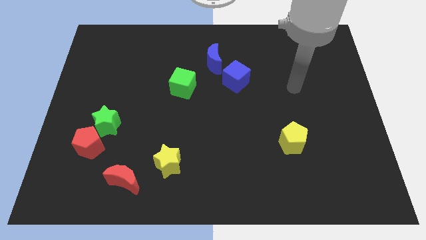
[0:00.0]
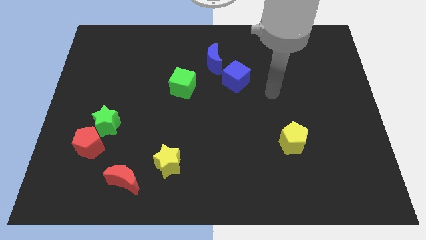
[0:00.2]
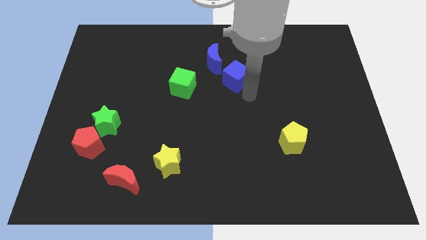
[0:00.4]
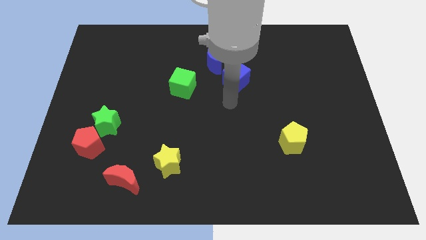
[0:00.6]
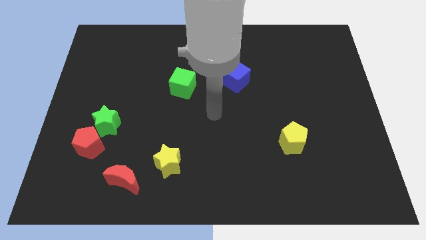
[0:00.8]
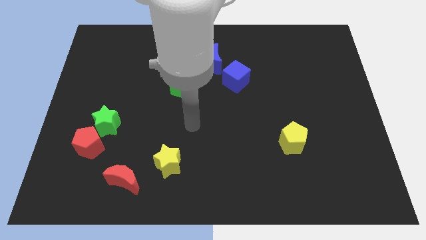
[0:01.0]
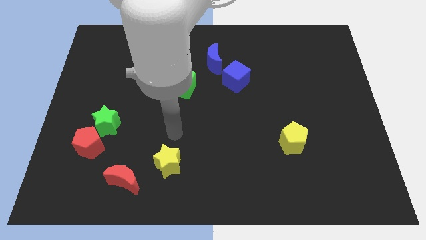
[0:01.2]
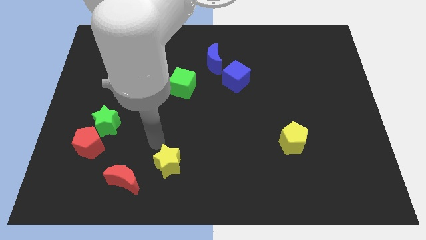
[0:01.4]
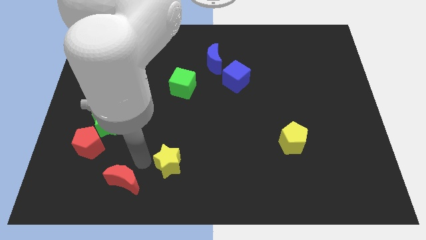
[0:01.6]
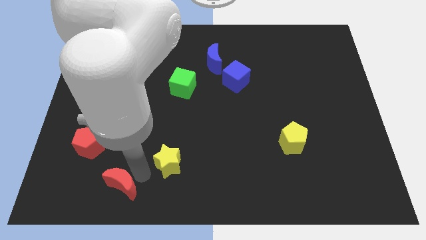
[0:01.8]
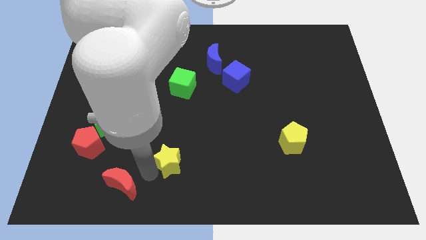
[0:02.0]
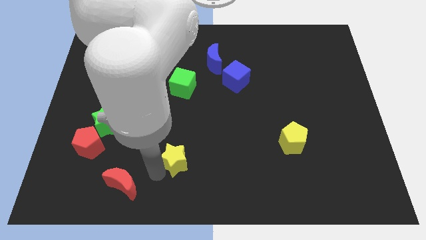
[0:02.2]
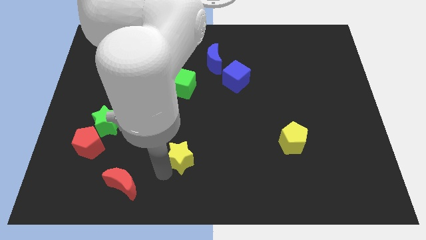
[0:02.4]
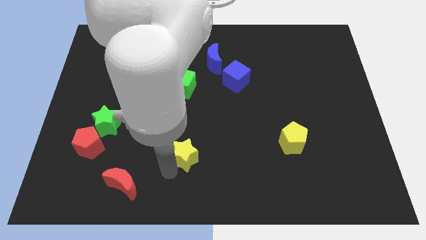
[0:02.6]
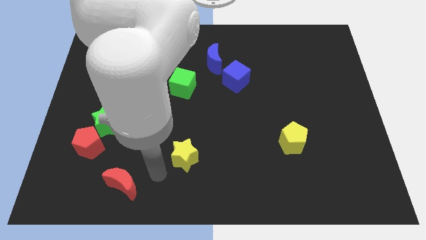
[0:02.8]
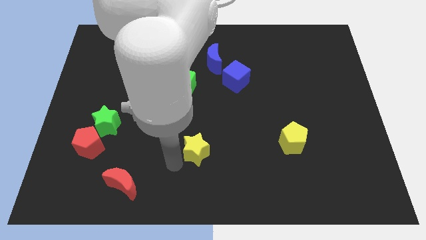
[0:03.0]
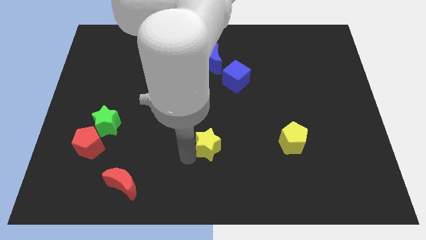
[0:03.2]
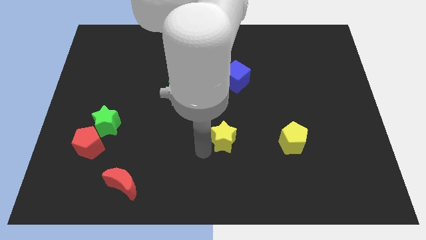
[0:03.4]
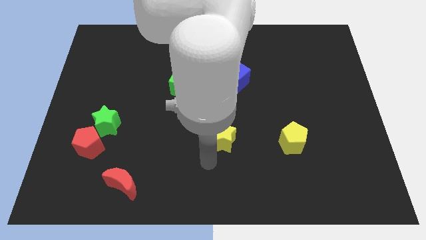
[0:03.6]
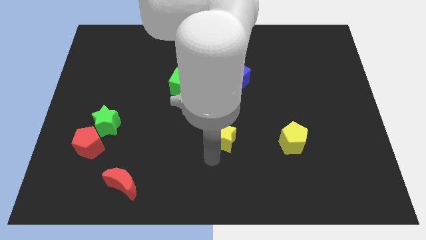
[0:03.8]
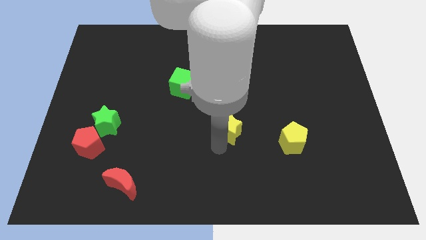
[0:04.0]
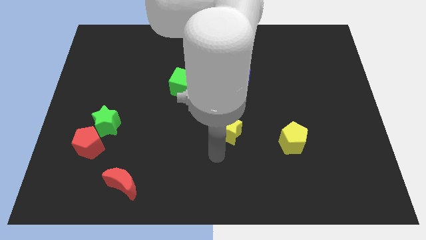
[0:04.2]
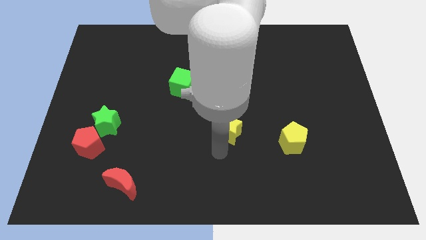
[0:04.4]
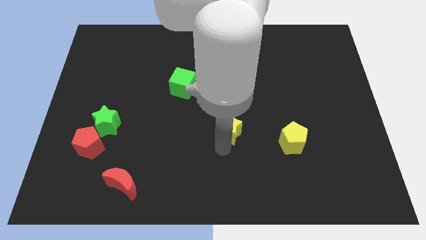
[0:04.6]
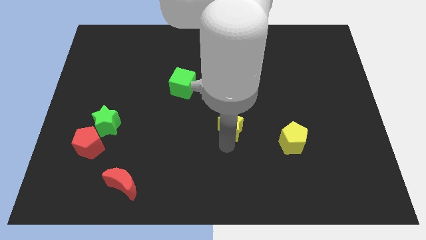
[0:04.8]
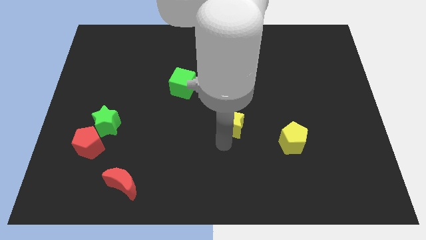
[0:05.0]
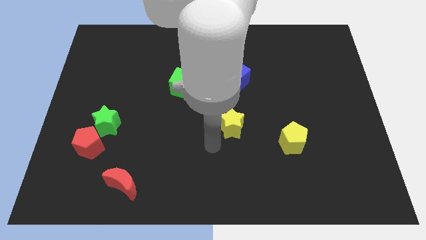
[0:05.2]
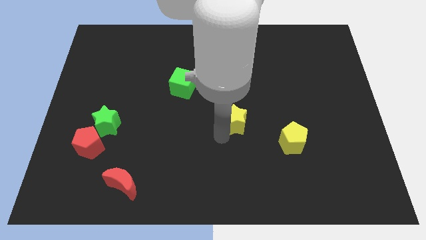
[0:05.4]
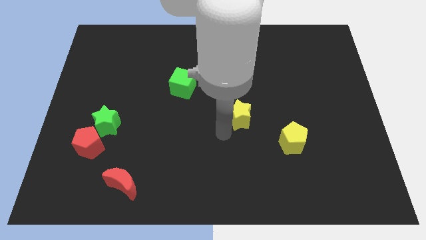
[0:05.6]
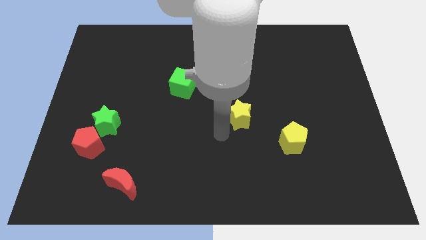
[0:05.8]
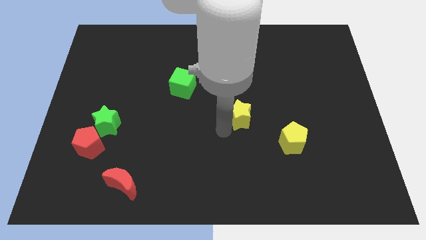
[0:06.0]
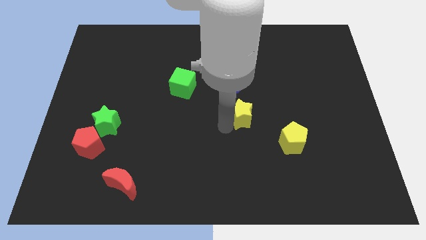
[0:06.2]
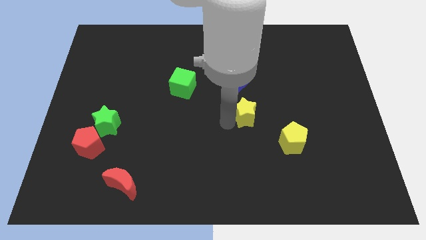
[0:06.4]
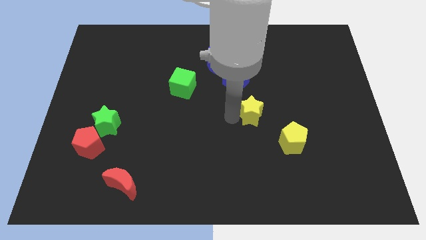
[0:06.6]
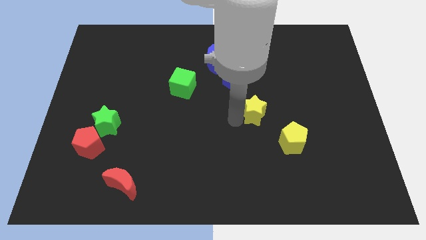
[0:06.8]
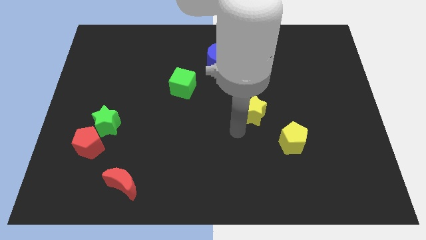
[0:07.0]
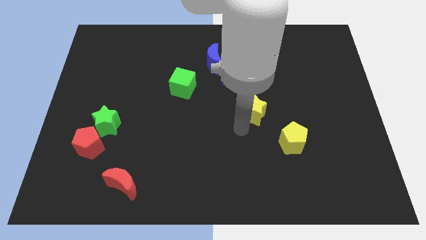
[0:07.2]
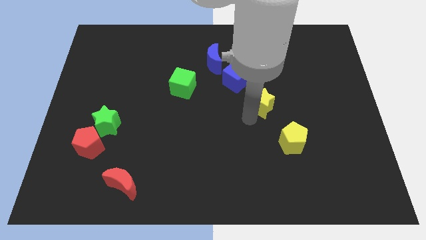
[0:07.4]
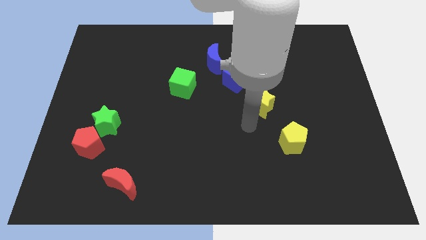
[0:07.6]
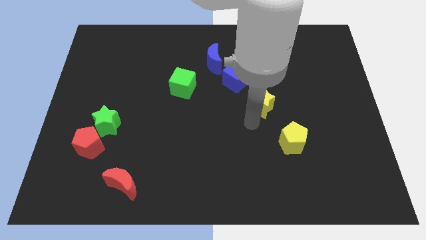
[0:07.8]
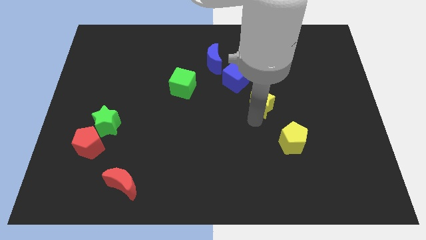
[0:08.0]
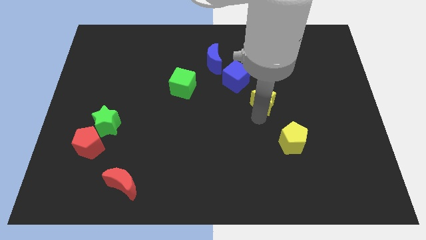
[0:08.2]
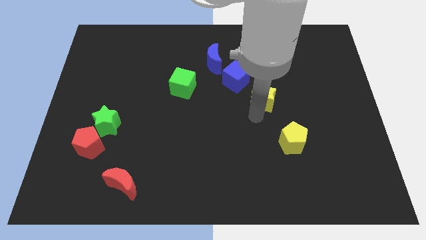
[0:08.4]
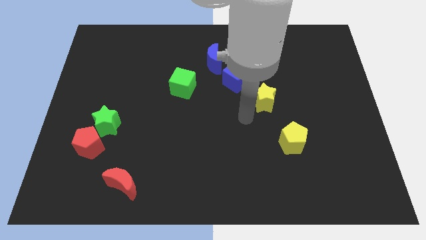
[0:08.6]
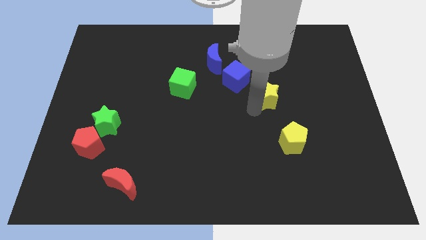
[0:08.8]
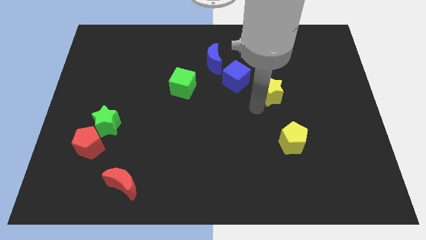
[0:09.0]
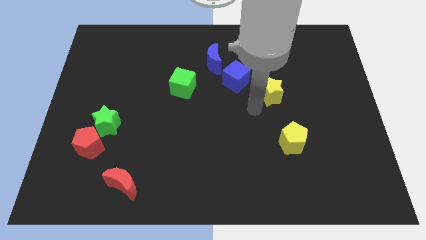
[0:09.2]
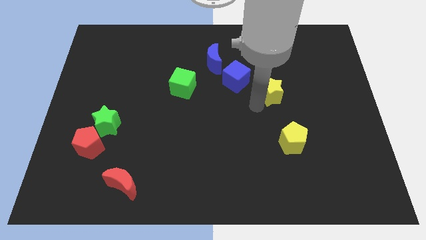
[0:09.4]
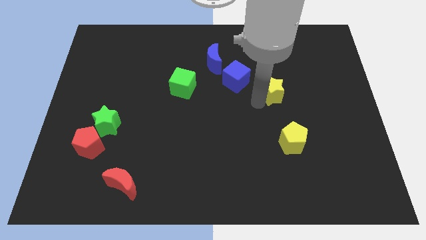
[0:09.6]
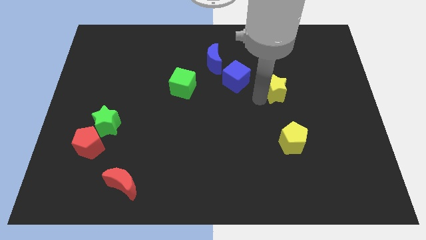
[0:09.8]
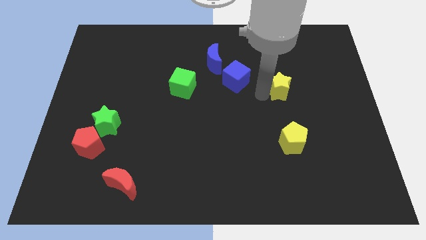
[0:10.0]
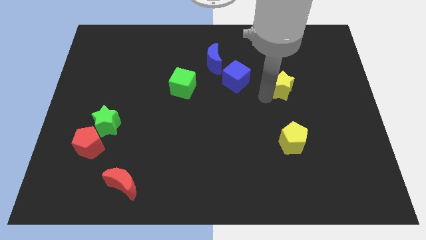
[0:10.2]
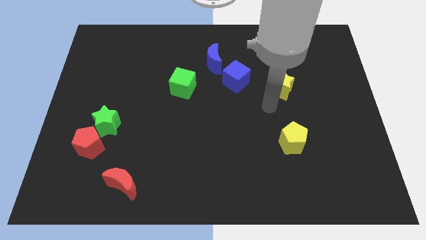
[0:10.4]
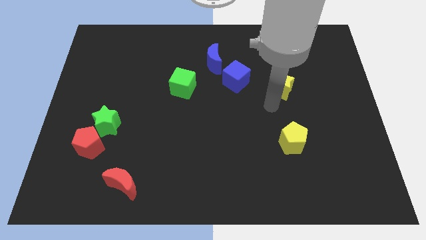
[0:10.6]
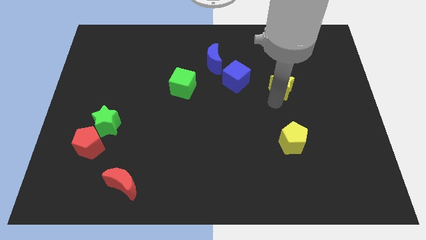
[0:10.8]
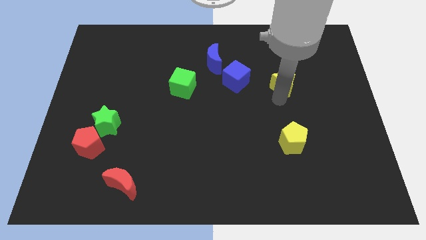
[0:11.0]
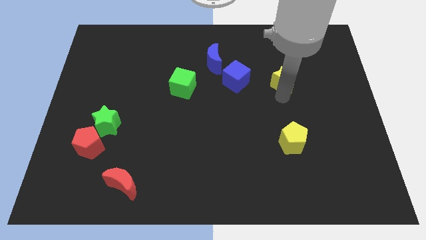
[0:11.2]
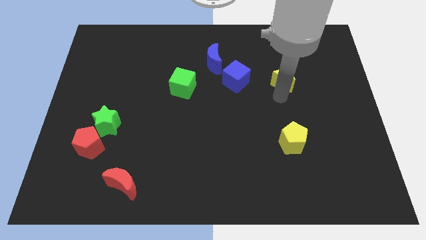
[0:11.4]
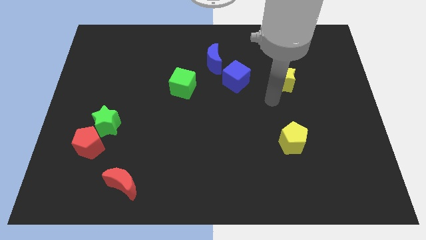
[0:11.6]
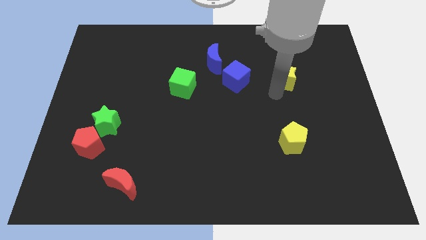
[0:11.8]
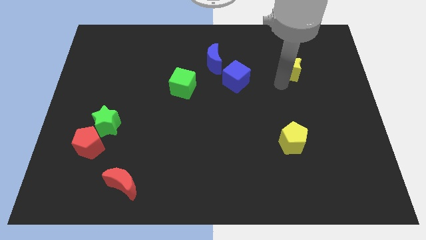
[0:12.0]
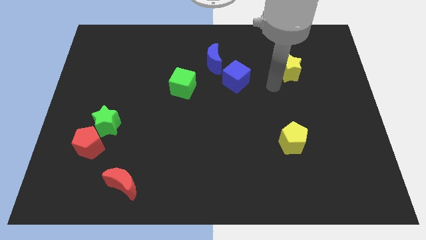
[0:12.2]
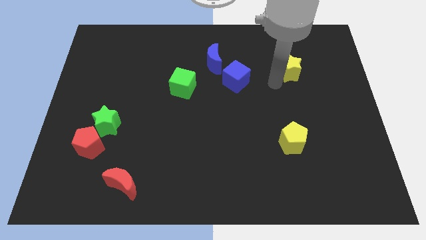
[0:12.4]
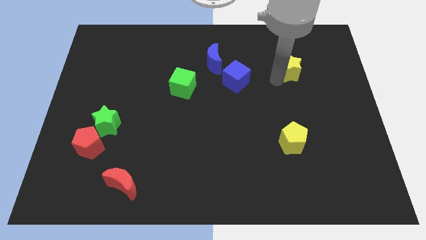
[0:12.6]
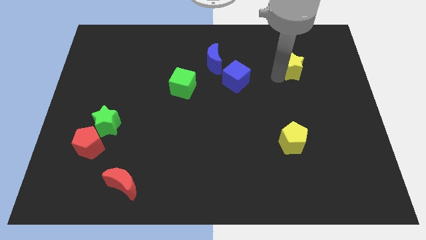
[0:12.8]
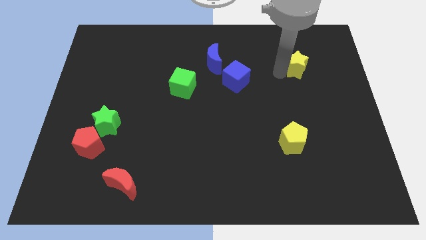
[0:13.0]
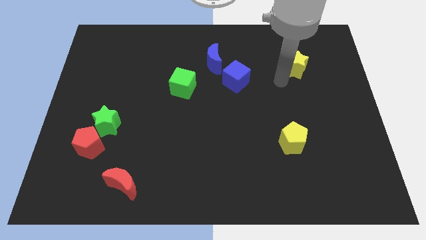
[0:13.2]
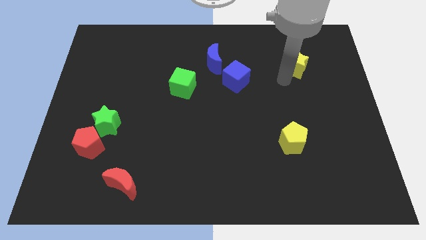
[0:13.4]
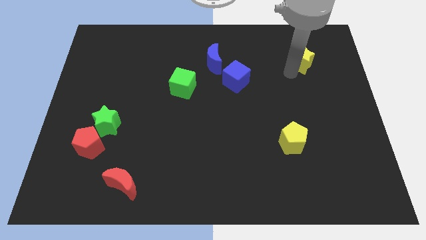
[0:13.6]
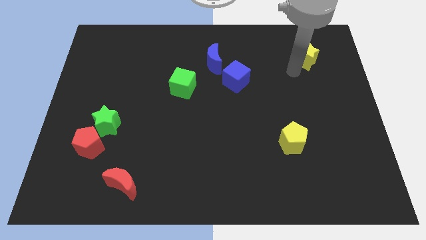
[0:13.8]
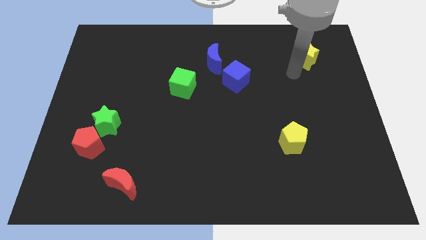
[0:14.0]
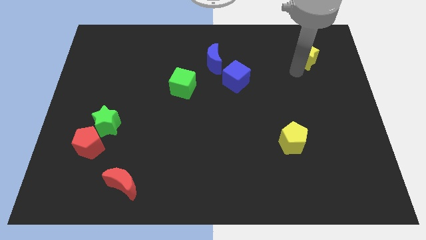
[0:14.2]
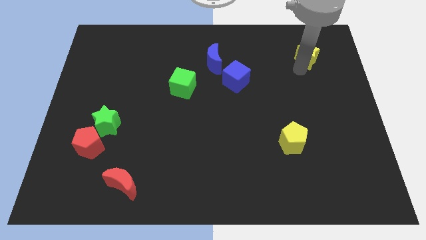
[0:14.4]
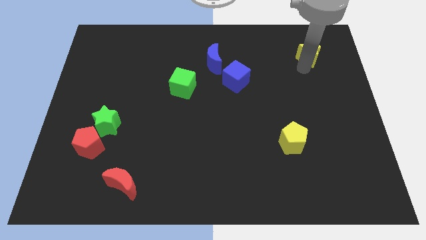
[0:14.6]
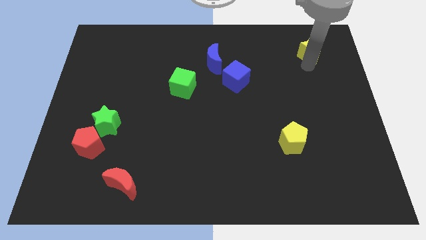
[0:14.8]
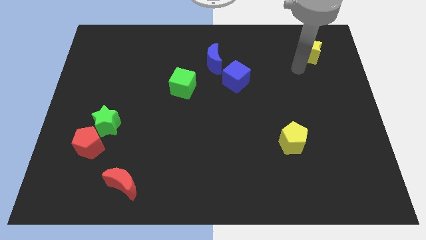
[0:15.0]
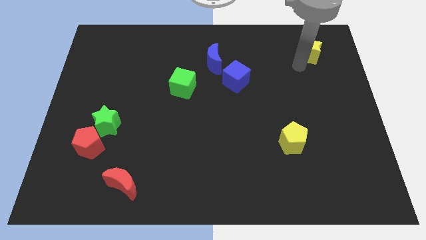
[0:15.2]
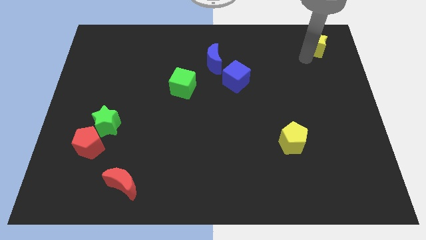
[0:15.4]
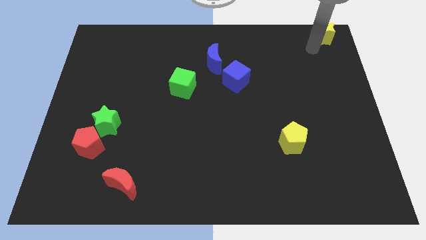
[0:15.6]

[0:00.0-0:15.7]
put the yellow star to the upper right corner
